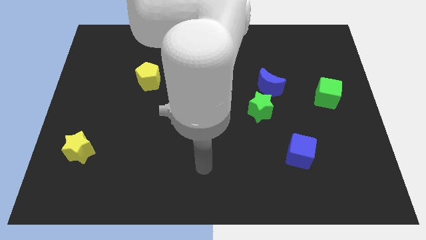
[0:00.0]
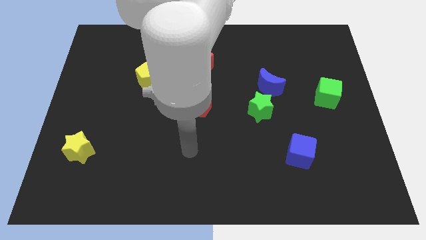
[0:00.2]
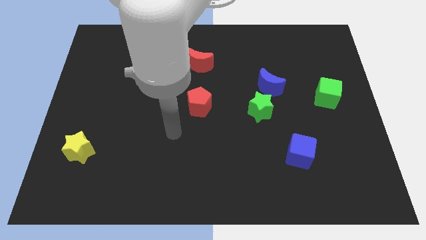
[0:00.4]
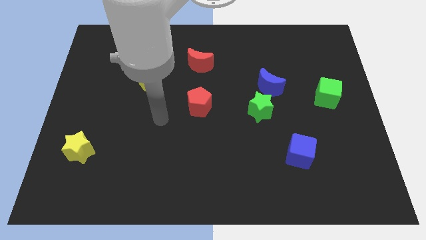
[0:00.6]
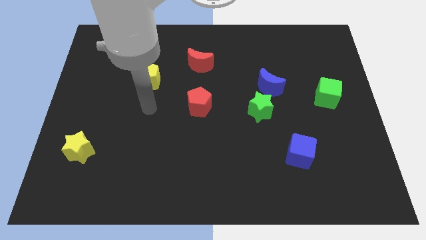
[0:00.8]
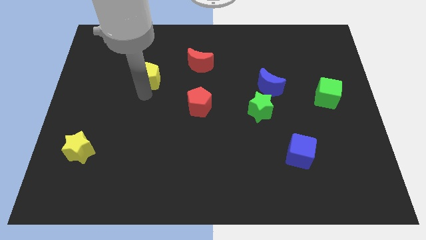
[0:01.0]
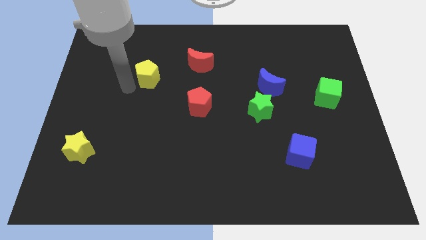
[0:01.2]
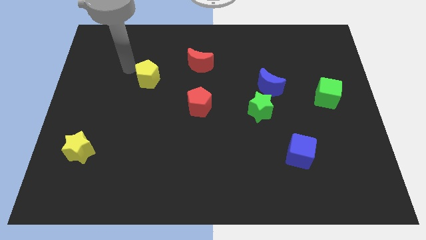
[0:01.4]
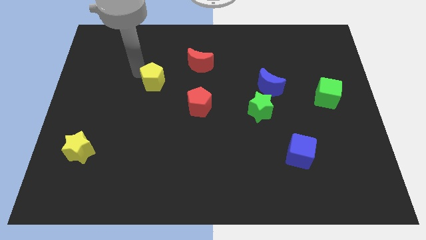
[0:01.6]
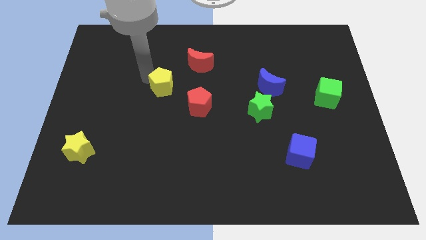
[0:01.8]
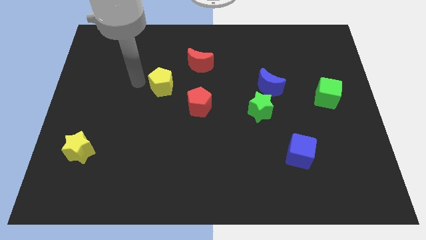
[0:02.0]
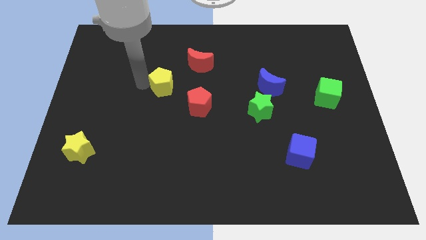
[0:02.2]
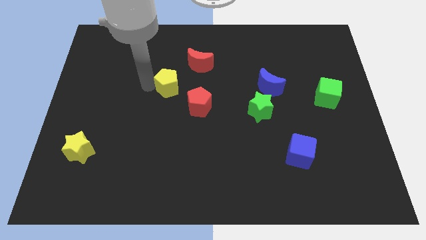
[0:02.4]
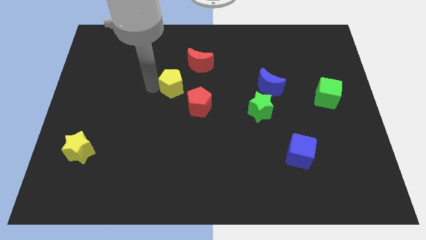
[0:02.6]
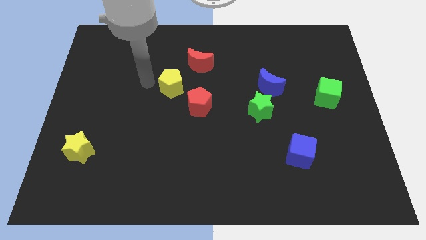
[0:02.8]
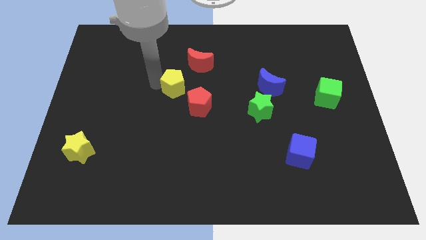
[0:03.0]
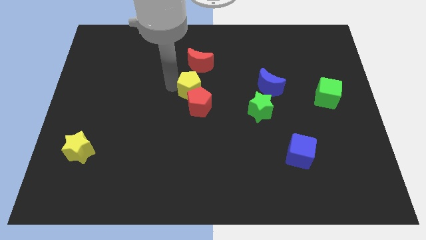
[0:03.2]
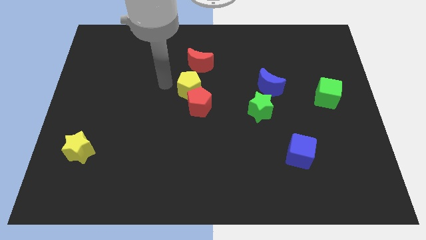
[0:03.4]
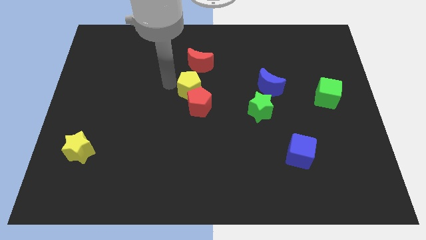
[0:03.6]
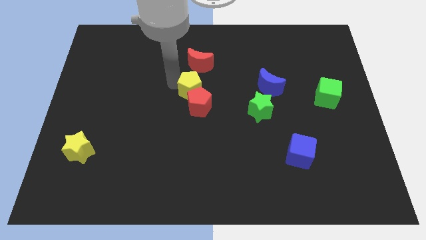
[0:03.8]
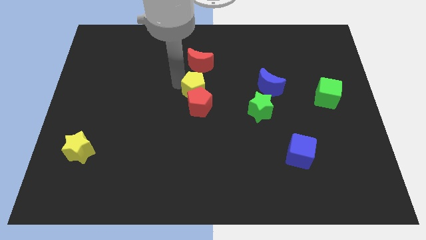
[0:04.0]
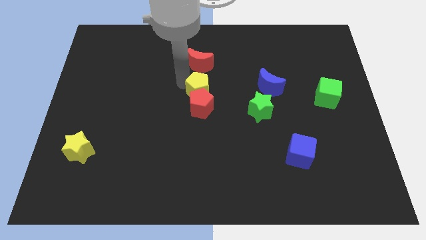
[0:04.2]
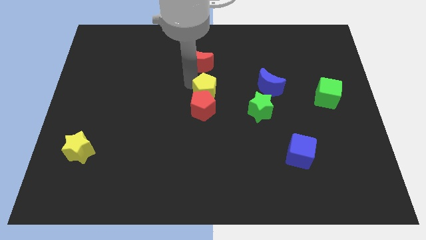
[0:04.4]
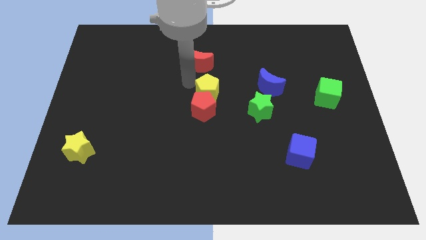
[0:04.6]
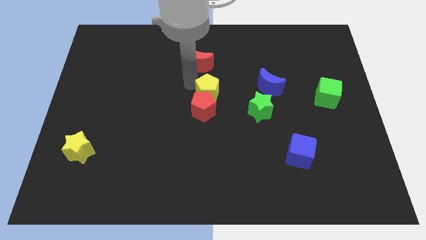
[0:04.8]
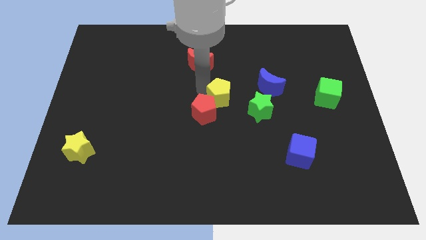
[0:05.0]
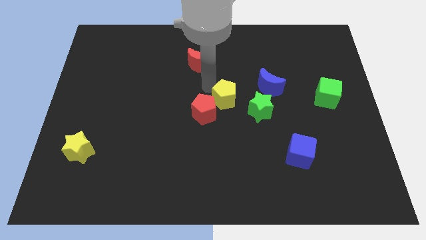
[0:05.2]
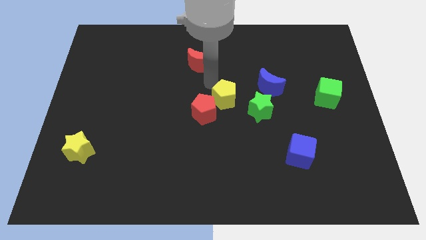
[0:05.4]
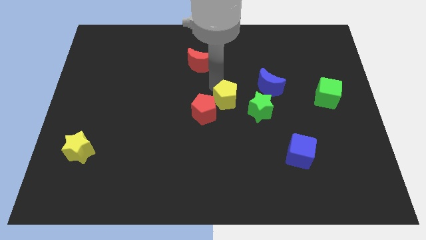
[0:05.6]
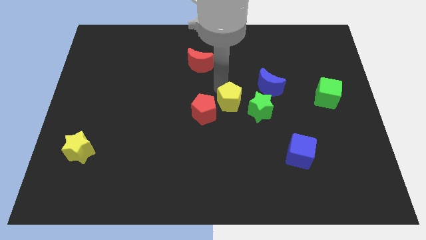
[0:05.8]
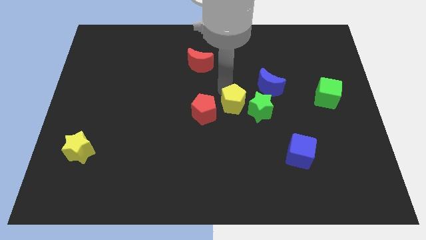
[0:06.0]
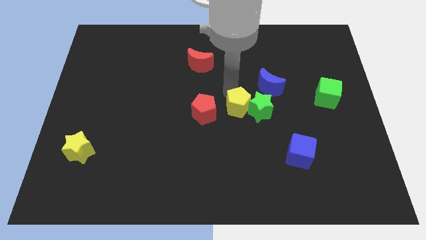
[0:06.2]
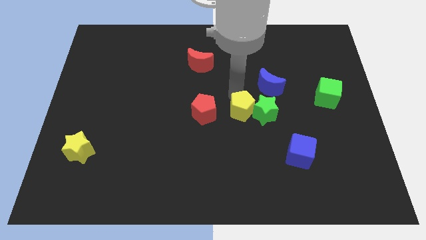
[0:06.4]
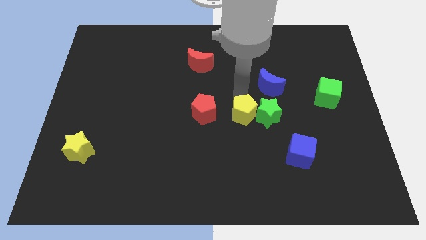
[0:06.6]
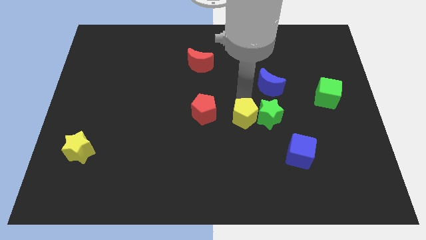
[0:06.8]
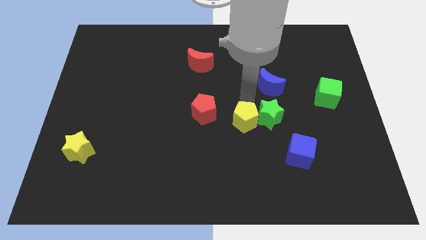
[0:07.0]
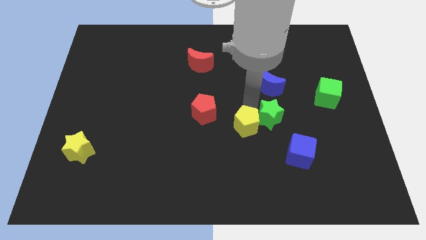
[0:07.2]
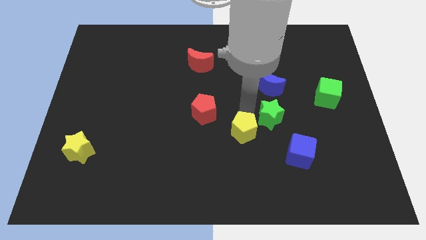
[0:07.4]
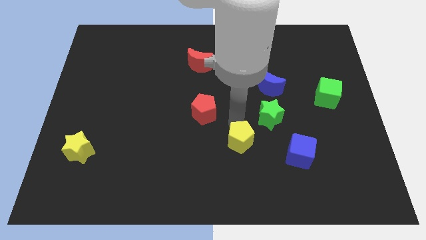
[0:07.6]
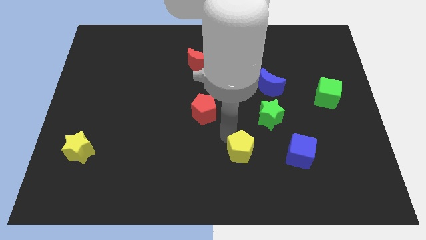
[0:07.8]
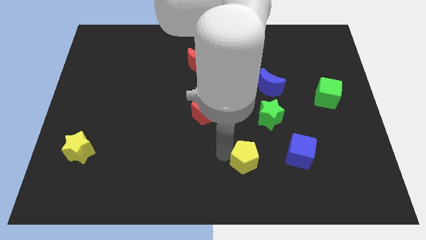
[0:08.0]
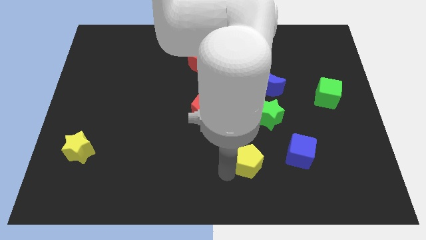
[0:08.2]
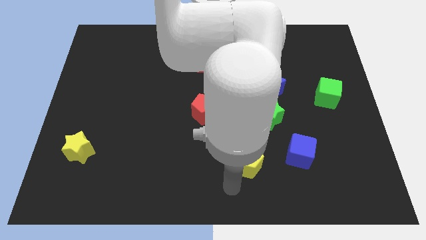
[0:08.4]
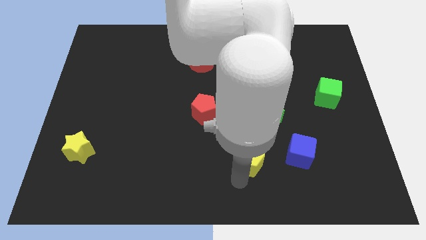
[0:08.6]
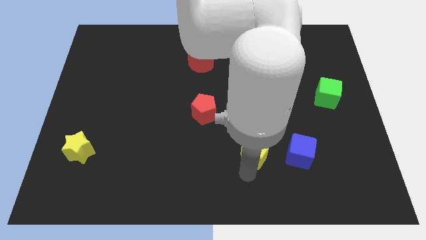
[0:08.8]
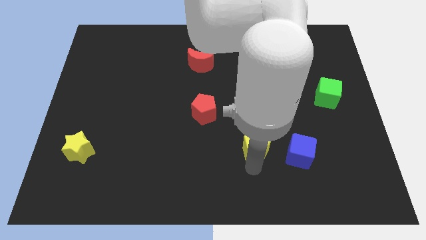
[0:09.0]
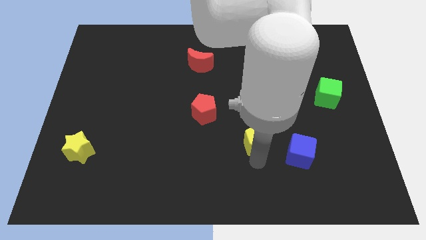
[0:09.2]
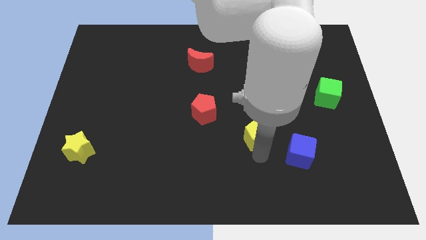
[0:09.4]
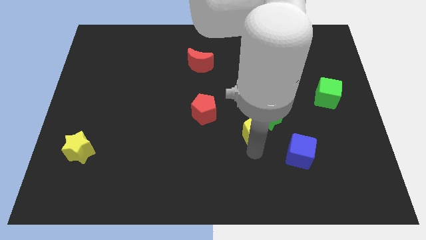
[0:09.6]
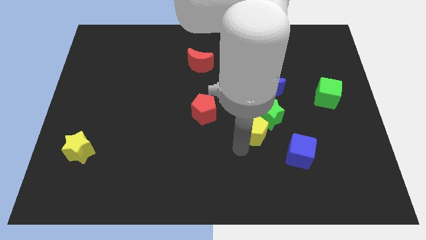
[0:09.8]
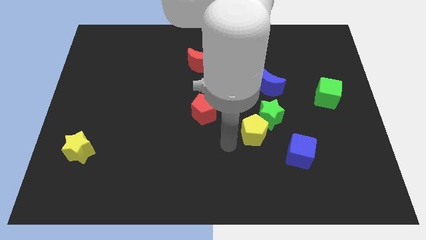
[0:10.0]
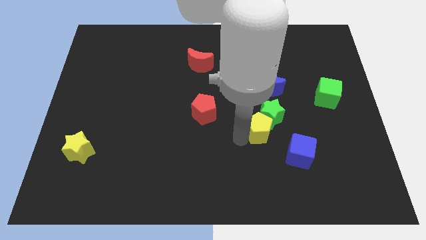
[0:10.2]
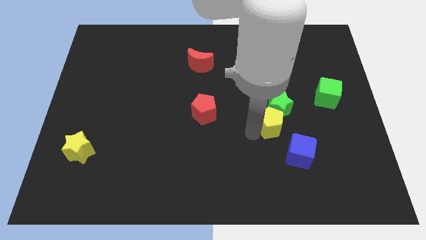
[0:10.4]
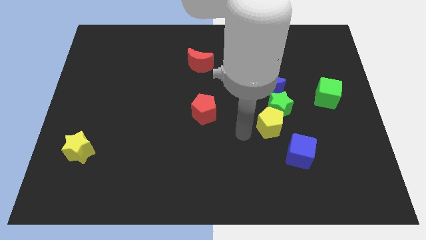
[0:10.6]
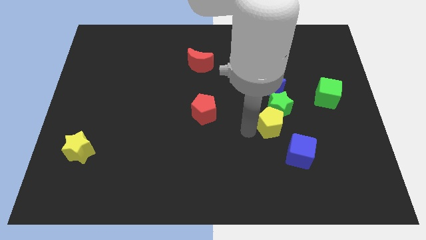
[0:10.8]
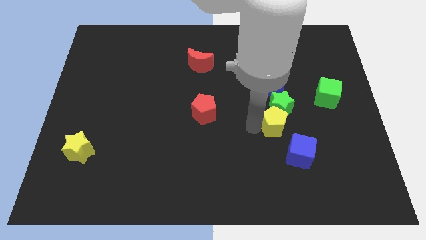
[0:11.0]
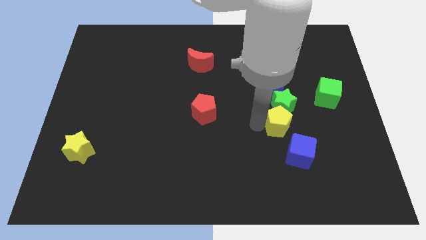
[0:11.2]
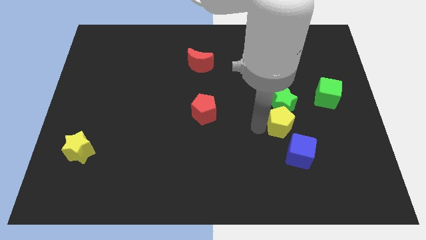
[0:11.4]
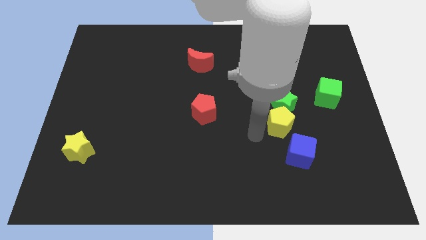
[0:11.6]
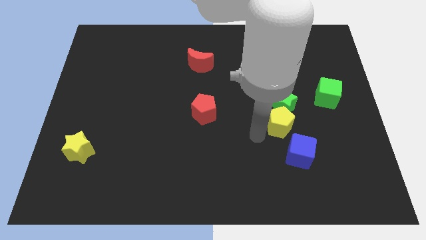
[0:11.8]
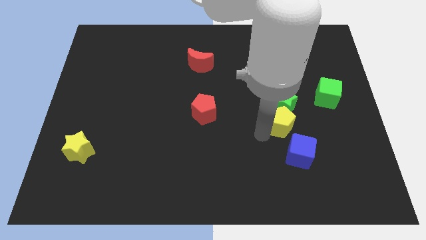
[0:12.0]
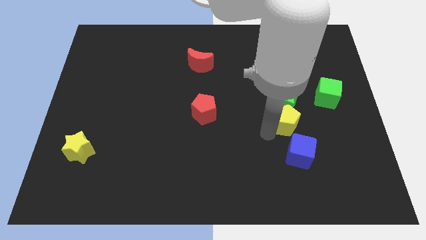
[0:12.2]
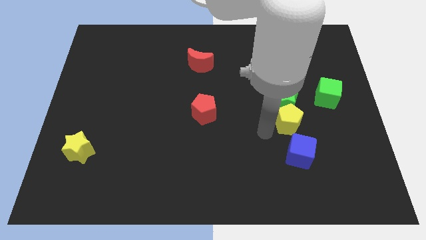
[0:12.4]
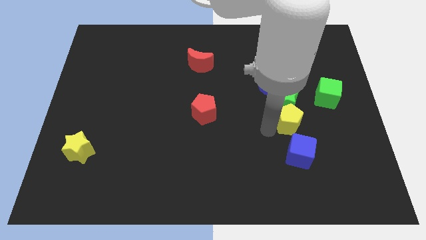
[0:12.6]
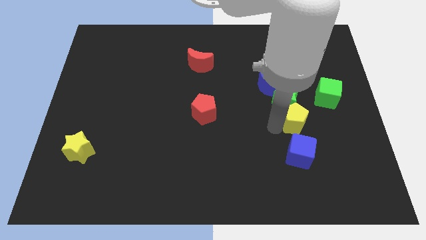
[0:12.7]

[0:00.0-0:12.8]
push the yellow pentagon to the bottom left of the green cube

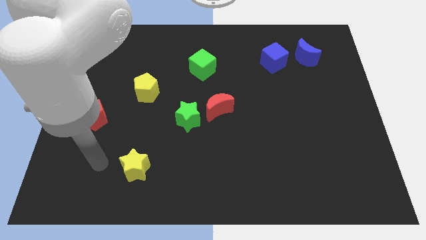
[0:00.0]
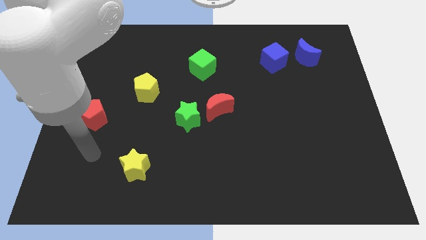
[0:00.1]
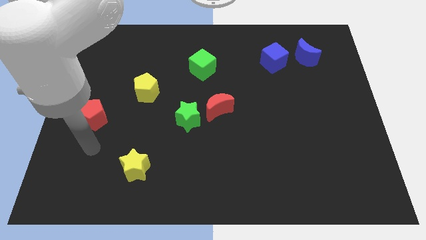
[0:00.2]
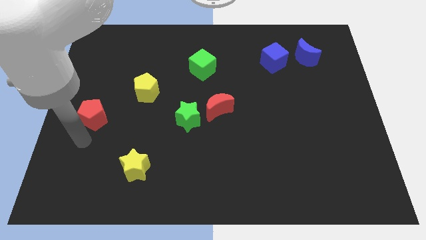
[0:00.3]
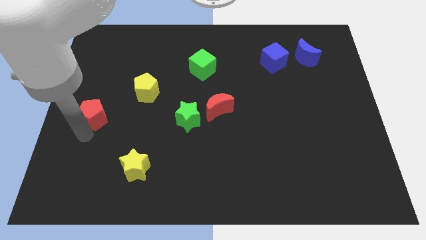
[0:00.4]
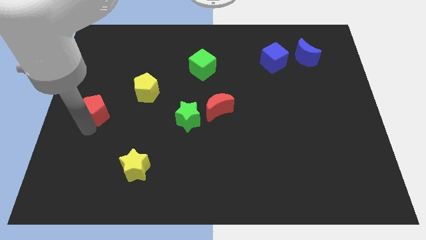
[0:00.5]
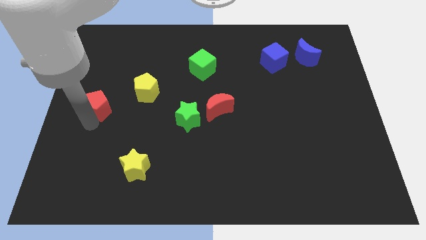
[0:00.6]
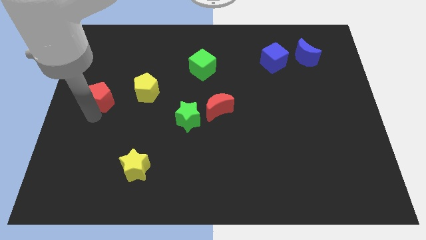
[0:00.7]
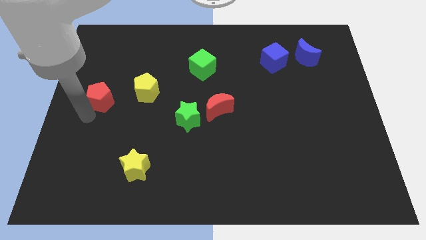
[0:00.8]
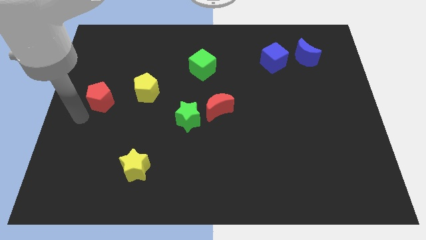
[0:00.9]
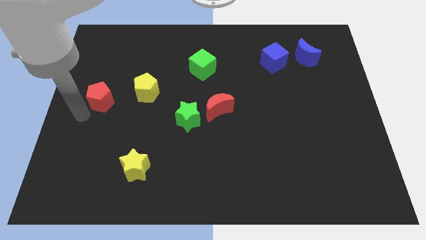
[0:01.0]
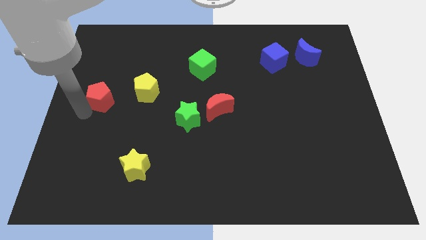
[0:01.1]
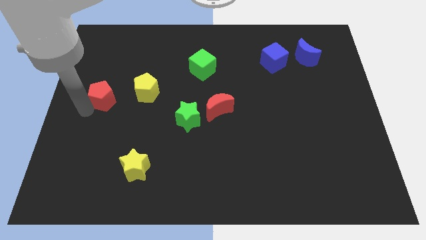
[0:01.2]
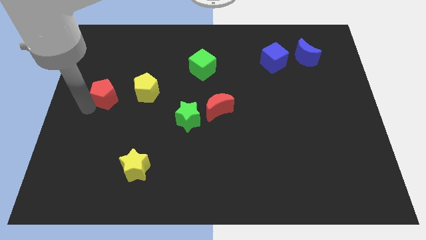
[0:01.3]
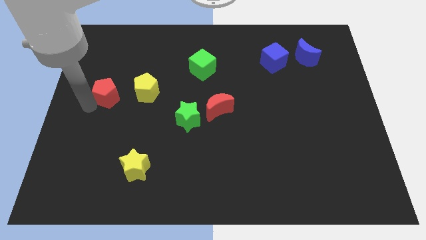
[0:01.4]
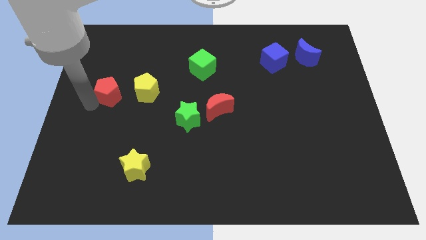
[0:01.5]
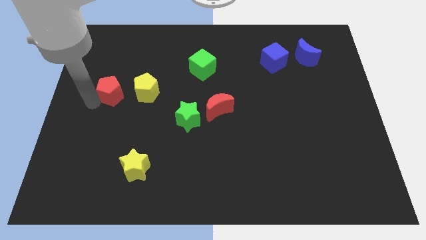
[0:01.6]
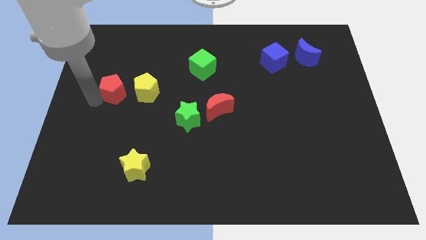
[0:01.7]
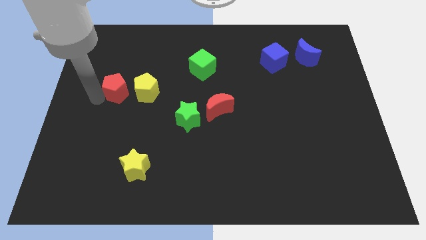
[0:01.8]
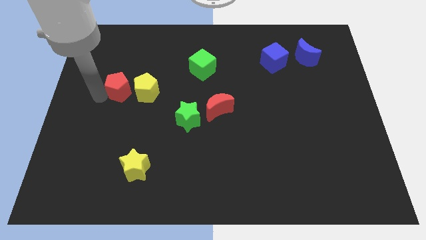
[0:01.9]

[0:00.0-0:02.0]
push the red pentagon diagonally up and to the left of the yellow pentagon
